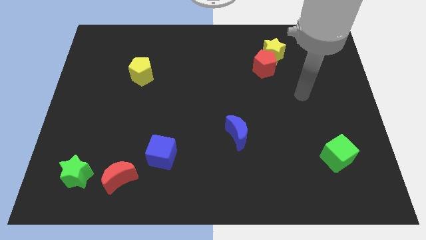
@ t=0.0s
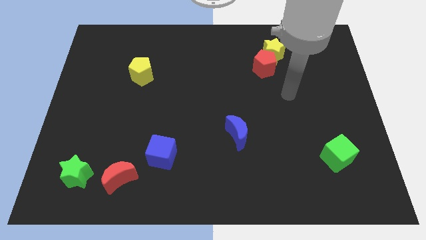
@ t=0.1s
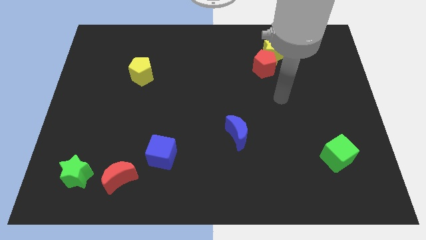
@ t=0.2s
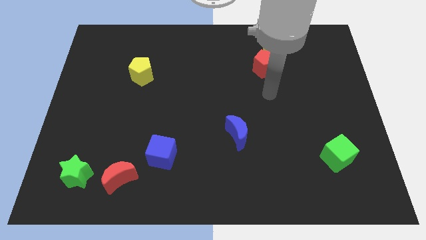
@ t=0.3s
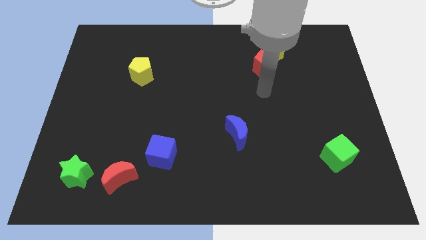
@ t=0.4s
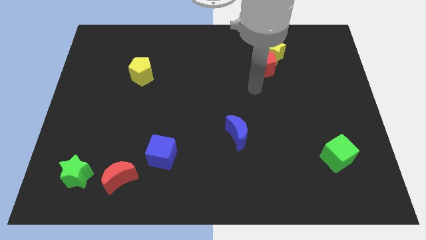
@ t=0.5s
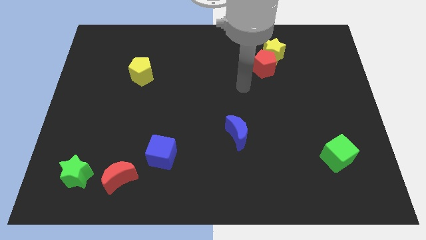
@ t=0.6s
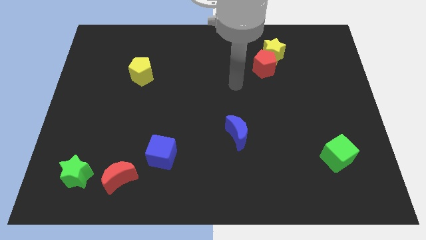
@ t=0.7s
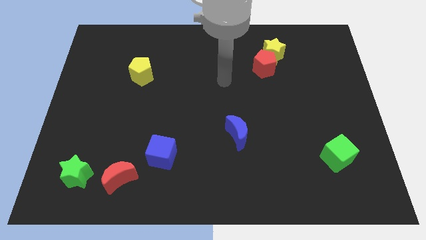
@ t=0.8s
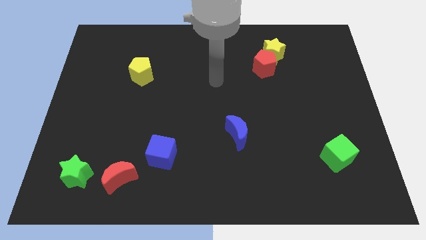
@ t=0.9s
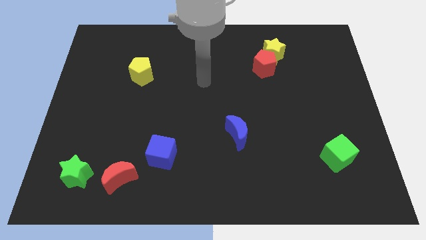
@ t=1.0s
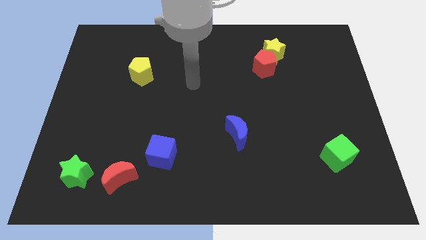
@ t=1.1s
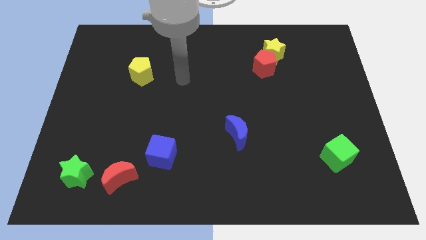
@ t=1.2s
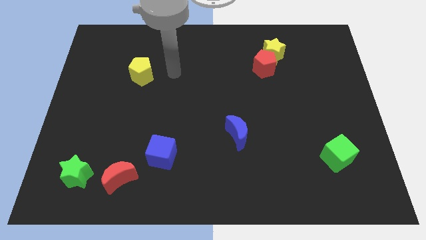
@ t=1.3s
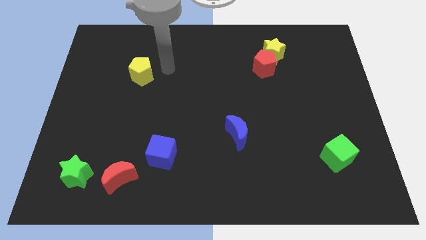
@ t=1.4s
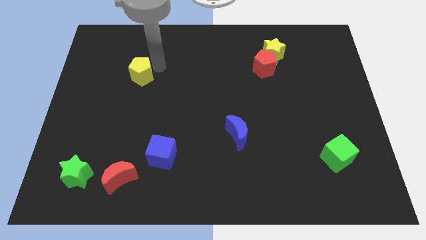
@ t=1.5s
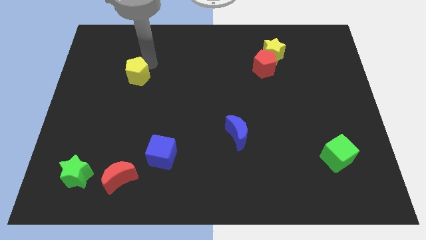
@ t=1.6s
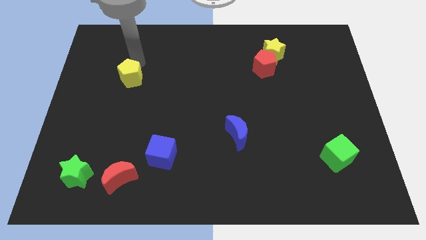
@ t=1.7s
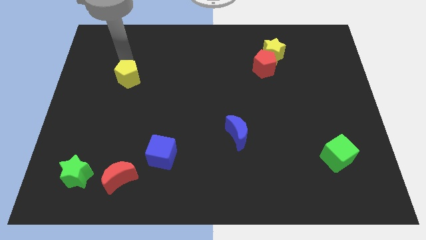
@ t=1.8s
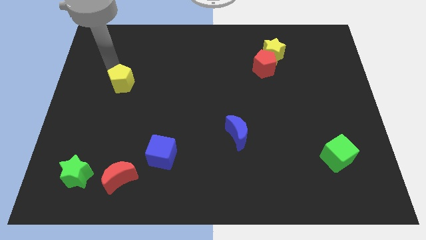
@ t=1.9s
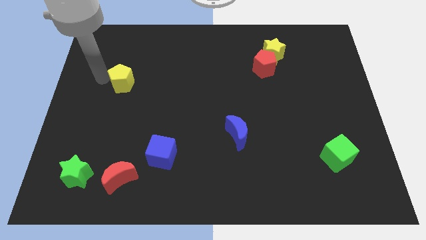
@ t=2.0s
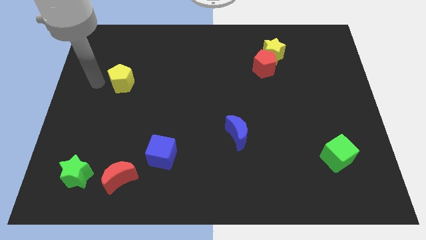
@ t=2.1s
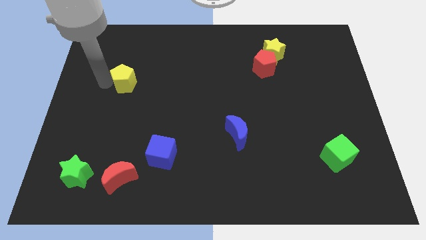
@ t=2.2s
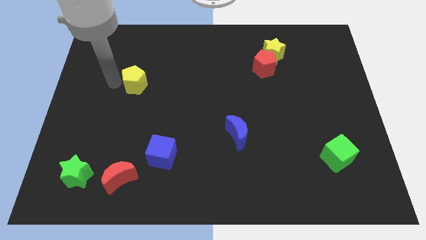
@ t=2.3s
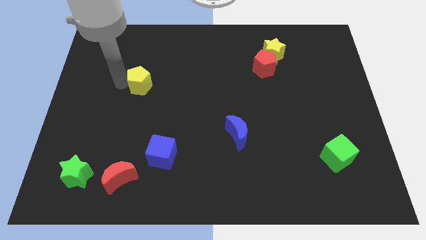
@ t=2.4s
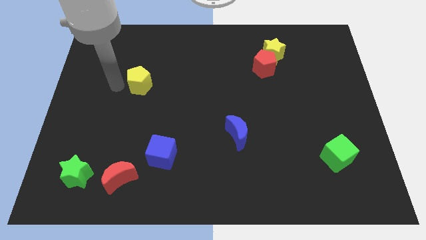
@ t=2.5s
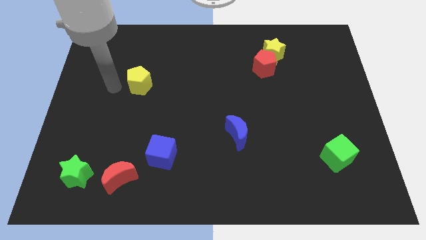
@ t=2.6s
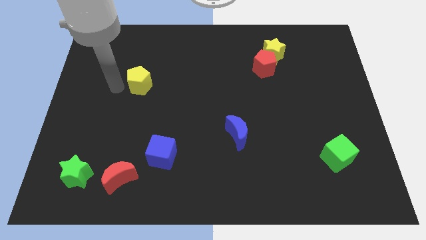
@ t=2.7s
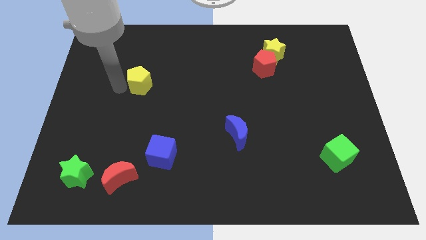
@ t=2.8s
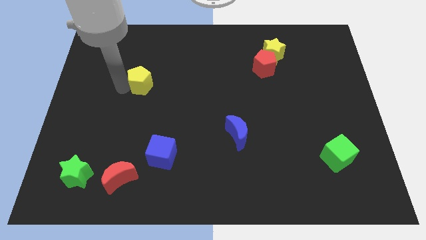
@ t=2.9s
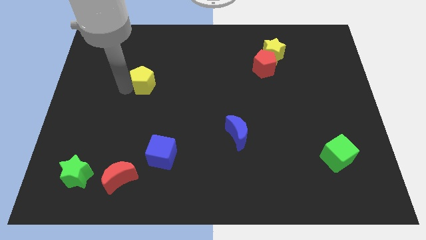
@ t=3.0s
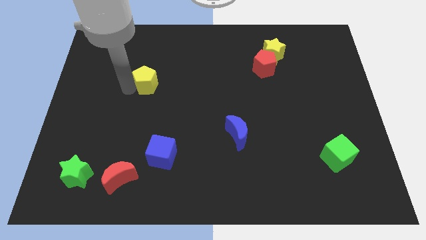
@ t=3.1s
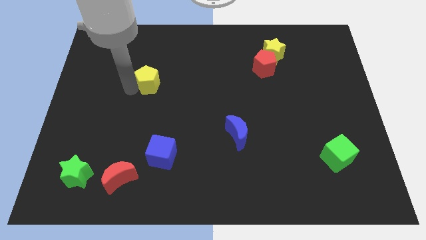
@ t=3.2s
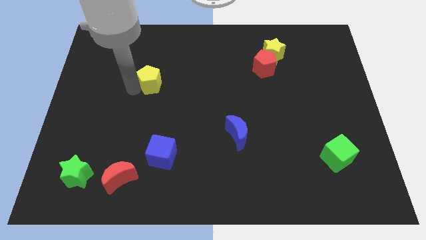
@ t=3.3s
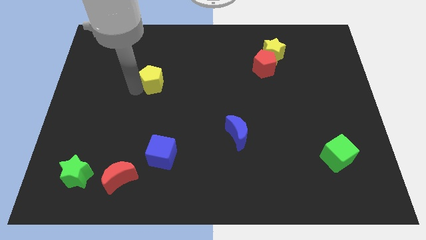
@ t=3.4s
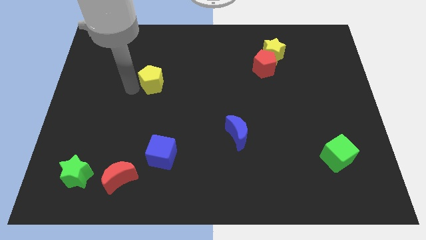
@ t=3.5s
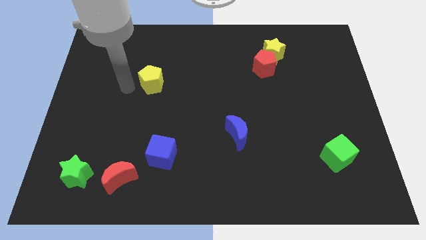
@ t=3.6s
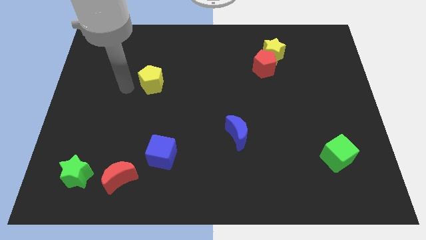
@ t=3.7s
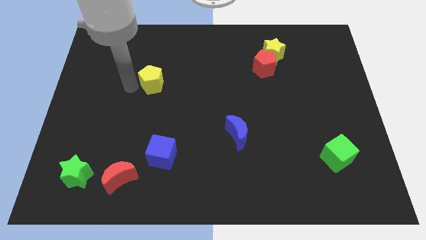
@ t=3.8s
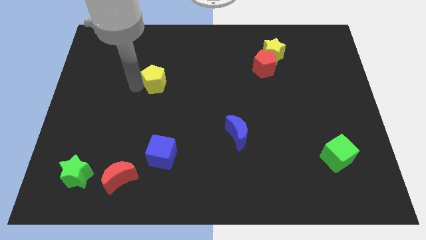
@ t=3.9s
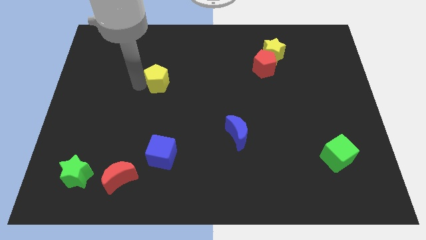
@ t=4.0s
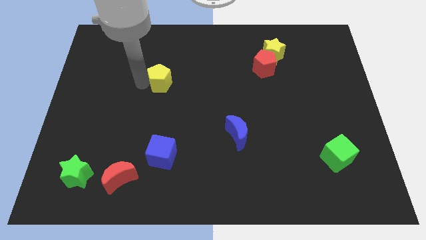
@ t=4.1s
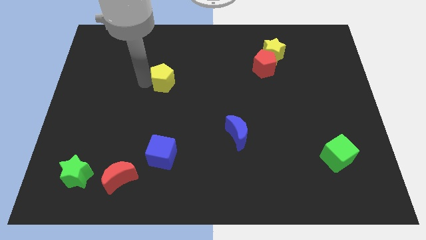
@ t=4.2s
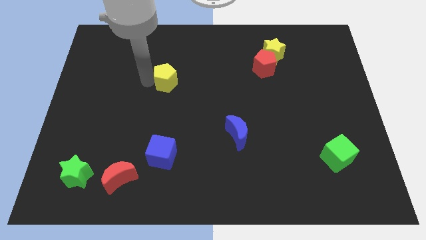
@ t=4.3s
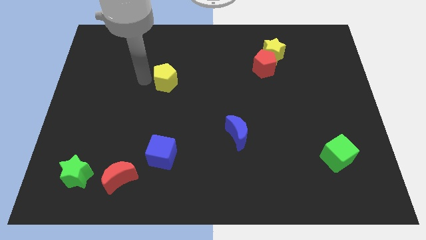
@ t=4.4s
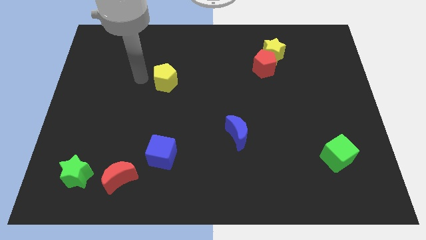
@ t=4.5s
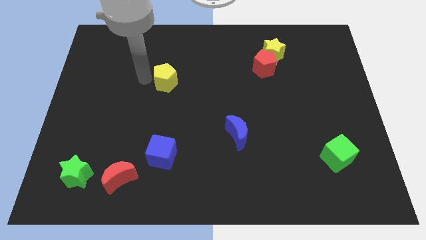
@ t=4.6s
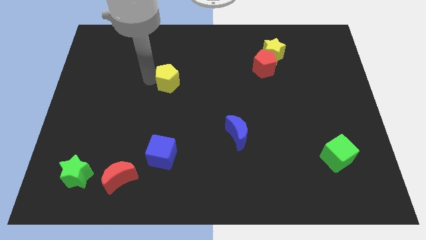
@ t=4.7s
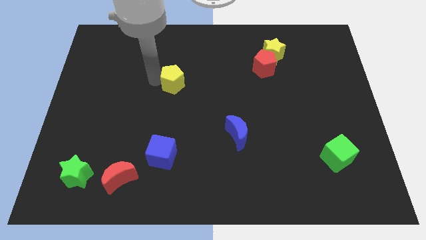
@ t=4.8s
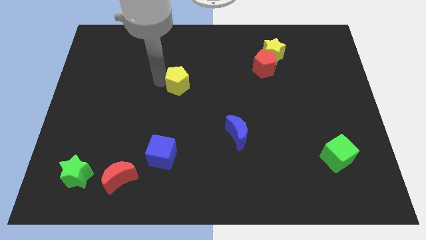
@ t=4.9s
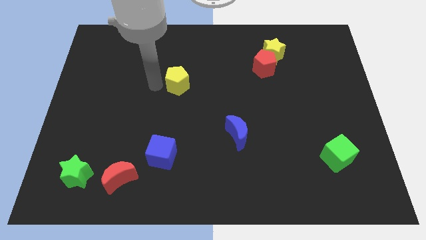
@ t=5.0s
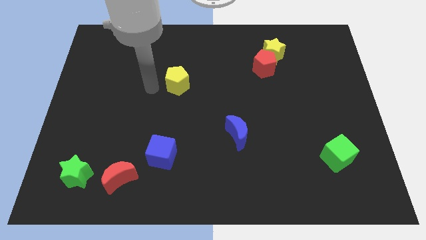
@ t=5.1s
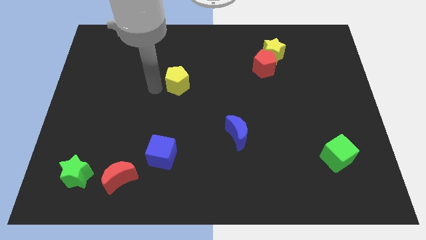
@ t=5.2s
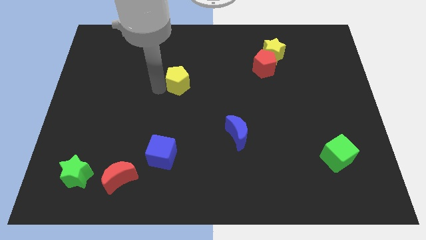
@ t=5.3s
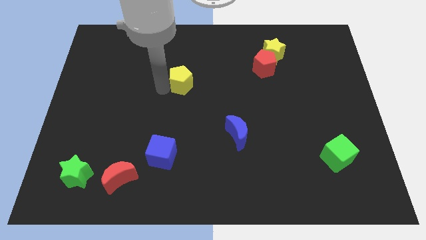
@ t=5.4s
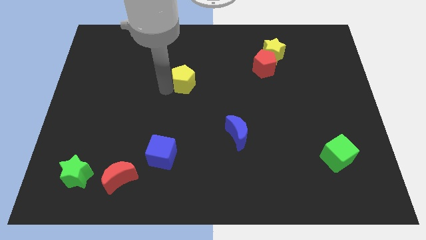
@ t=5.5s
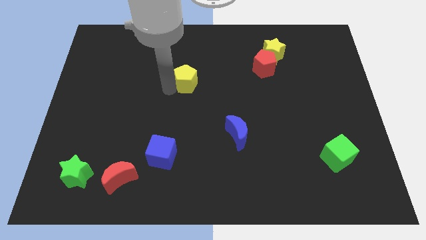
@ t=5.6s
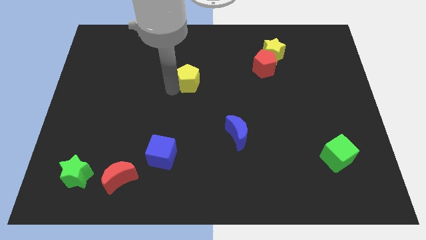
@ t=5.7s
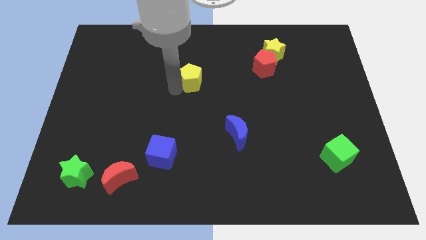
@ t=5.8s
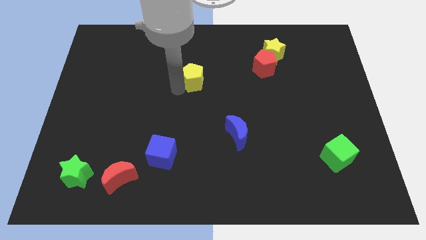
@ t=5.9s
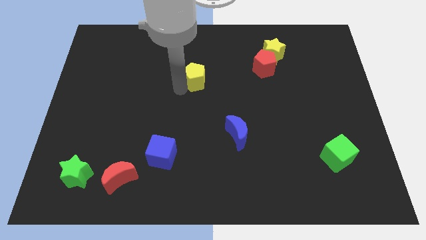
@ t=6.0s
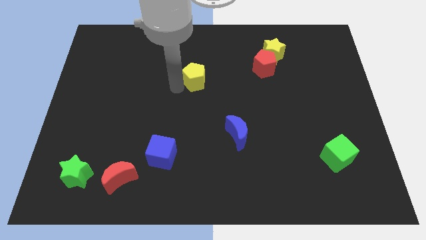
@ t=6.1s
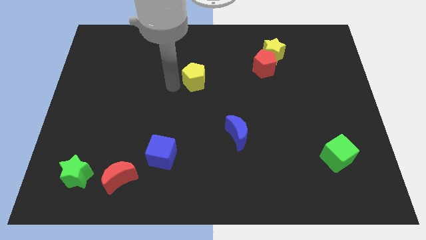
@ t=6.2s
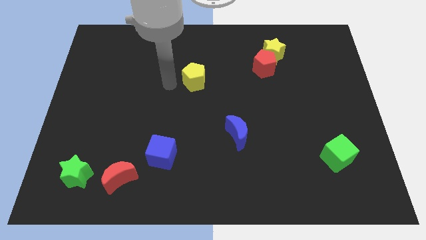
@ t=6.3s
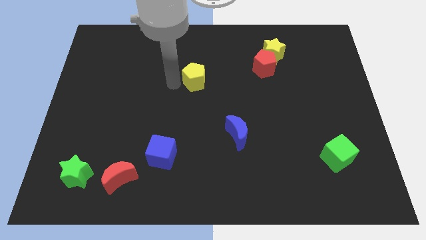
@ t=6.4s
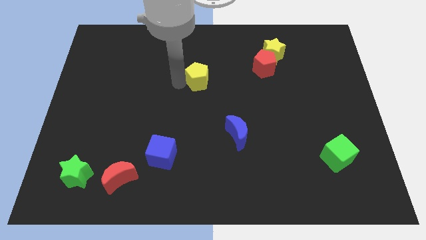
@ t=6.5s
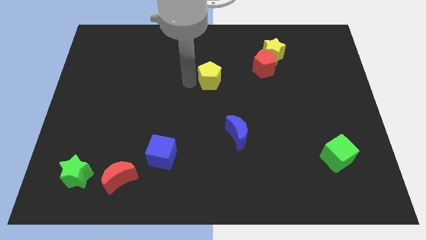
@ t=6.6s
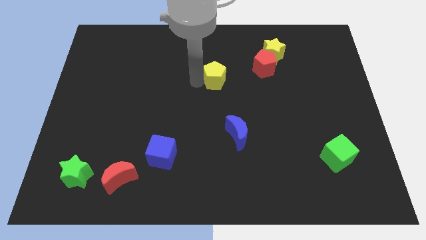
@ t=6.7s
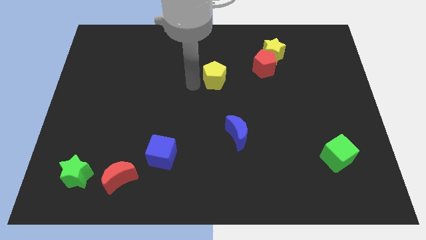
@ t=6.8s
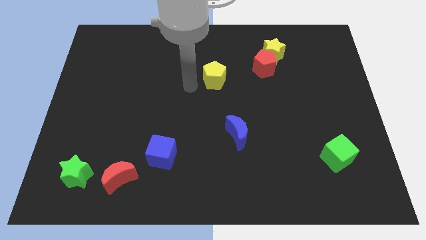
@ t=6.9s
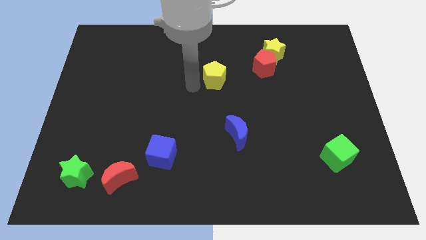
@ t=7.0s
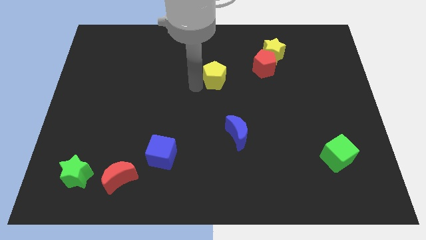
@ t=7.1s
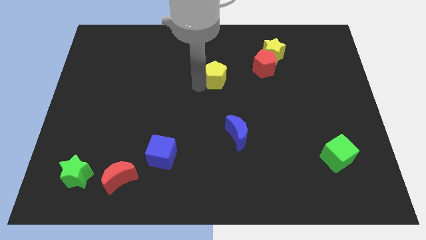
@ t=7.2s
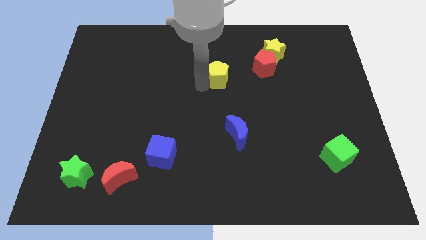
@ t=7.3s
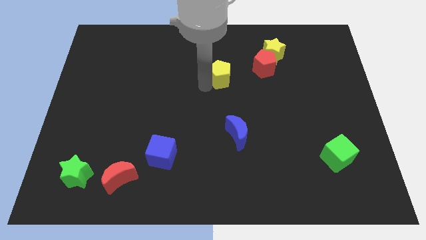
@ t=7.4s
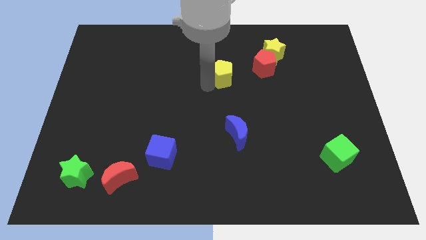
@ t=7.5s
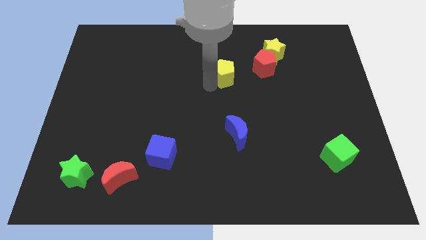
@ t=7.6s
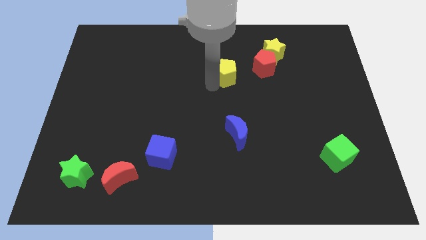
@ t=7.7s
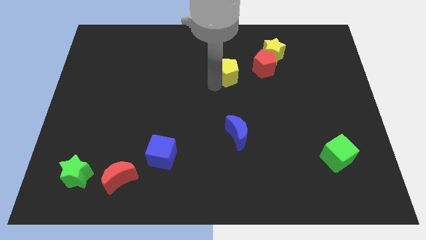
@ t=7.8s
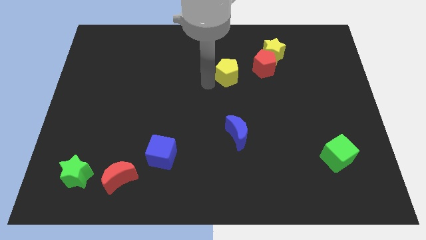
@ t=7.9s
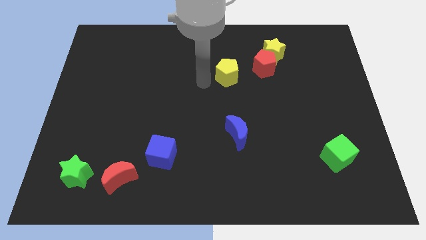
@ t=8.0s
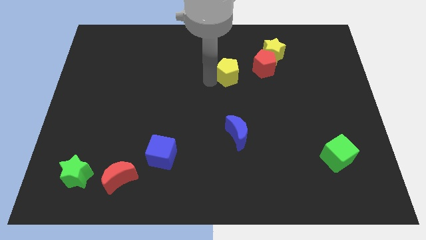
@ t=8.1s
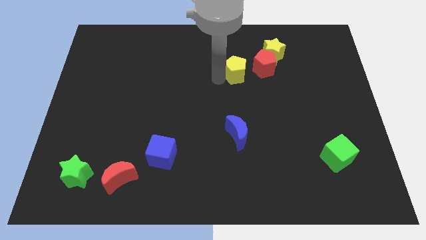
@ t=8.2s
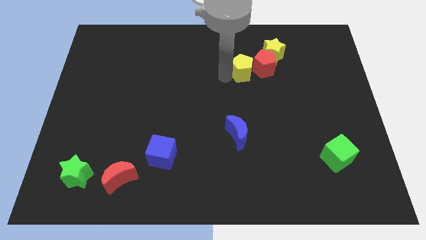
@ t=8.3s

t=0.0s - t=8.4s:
put the yellow pentagon to the red pentagon
